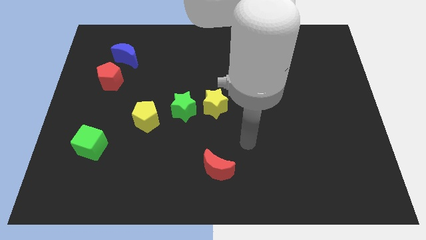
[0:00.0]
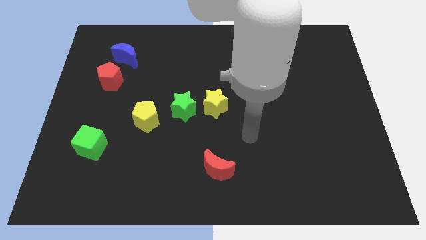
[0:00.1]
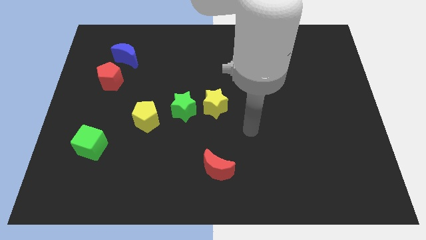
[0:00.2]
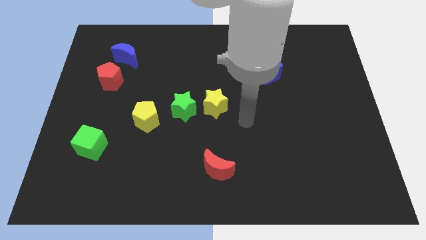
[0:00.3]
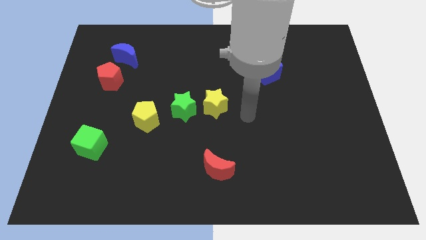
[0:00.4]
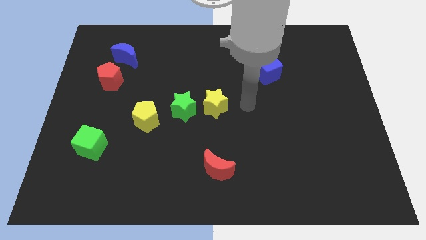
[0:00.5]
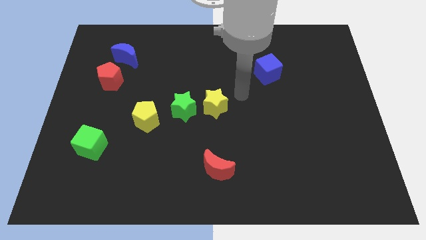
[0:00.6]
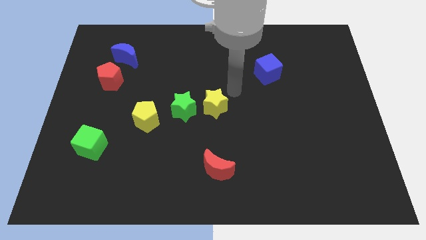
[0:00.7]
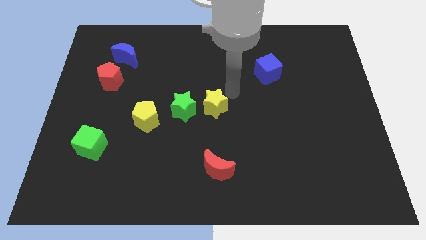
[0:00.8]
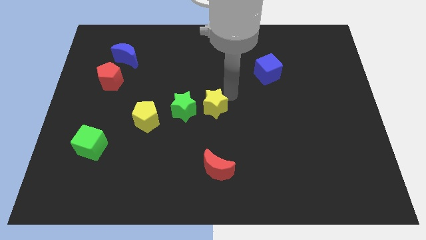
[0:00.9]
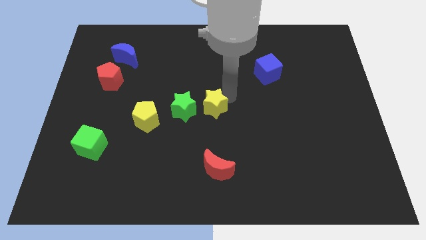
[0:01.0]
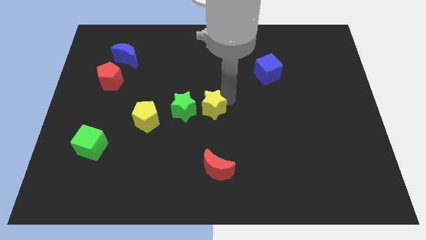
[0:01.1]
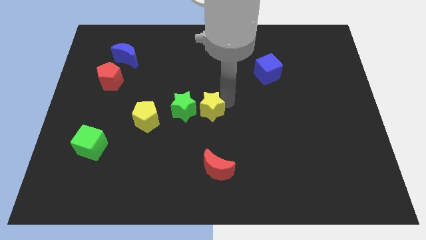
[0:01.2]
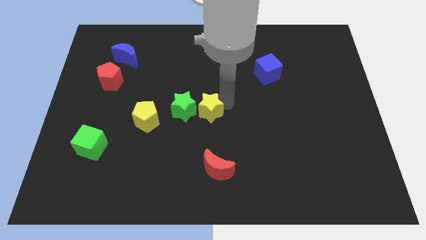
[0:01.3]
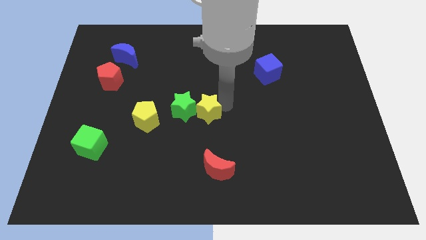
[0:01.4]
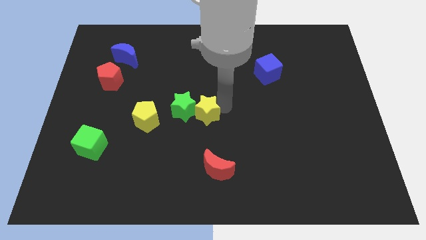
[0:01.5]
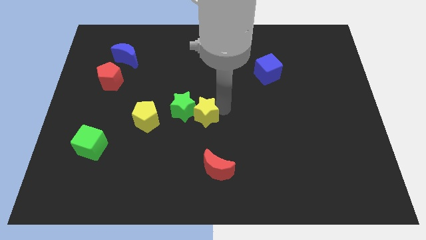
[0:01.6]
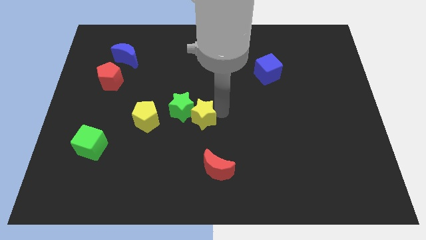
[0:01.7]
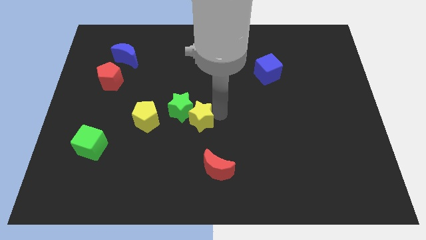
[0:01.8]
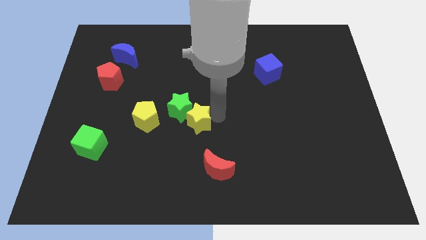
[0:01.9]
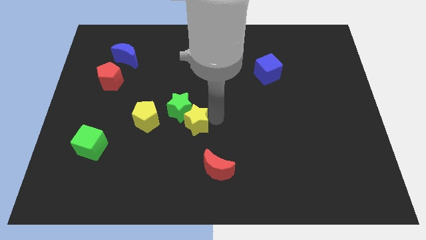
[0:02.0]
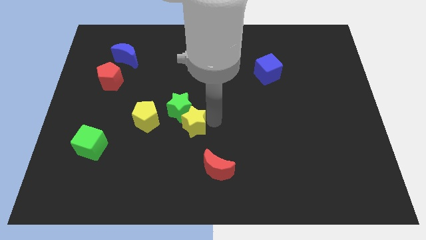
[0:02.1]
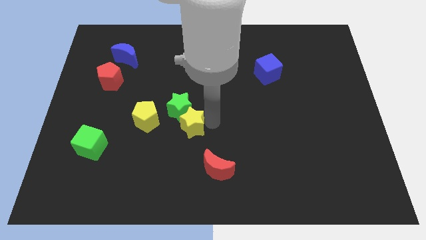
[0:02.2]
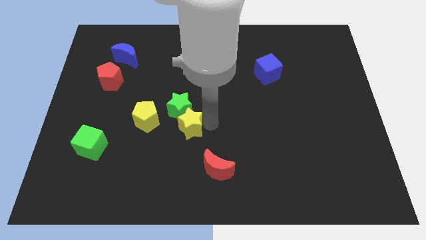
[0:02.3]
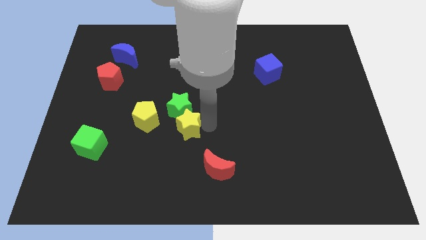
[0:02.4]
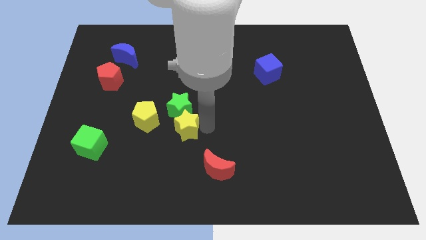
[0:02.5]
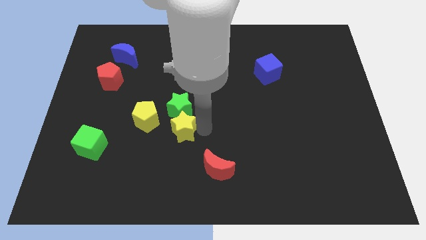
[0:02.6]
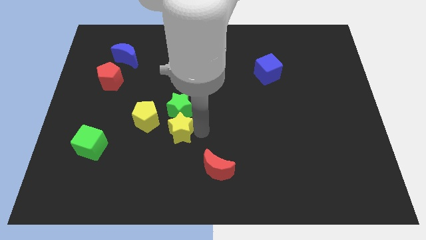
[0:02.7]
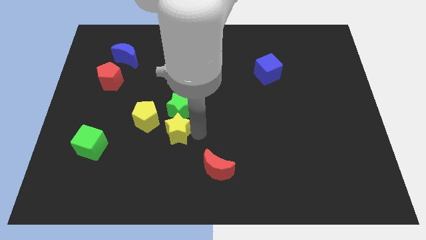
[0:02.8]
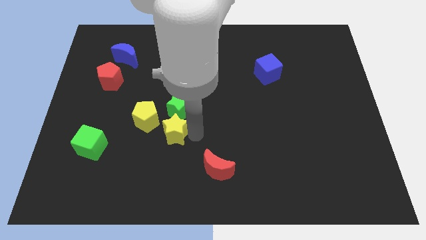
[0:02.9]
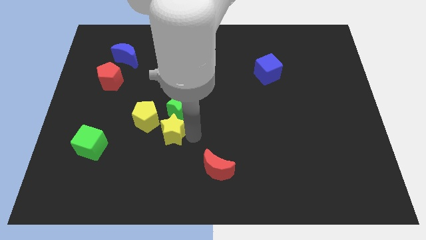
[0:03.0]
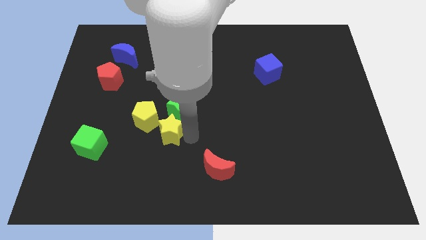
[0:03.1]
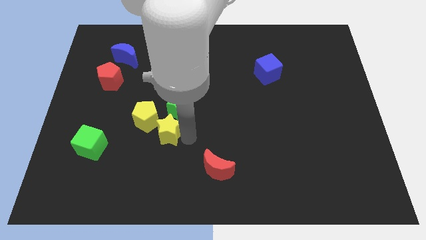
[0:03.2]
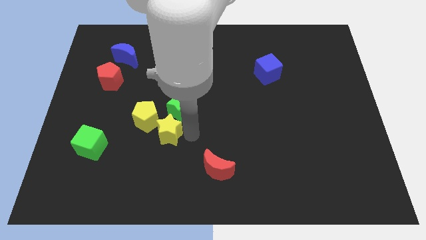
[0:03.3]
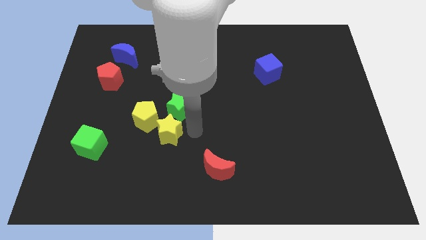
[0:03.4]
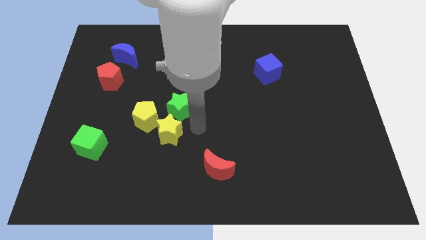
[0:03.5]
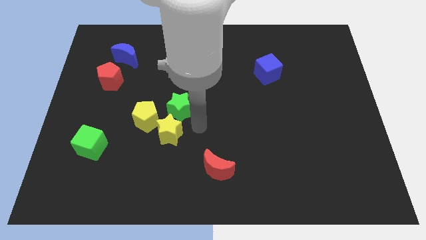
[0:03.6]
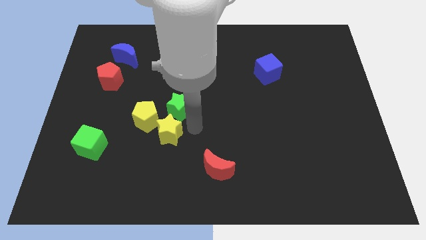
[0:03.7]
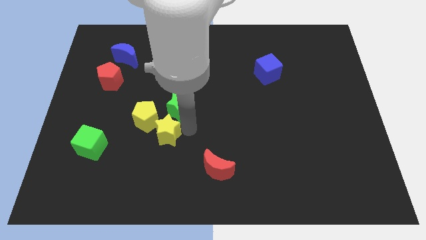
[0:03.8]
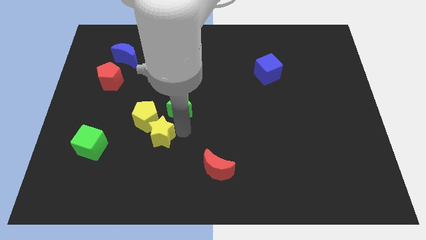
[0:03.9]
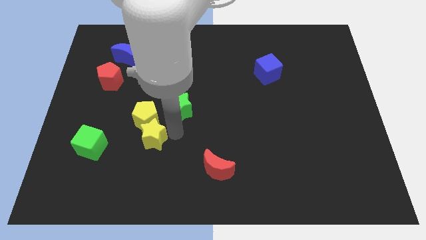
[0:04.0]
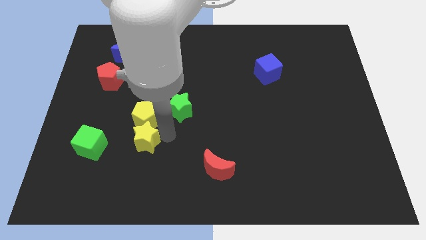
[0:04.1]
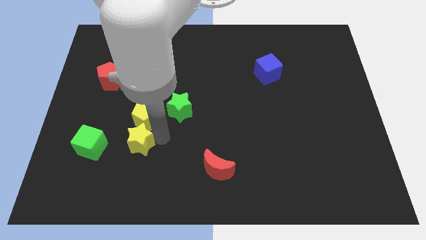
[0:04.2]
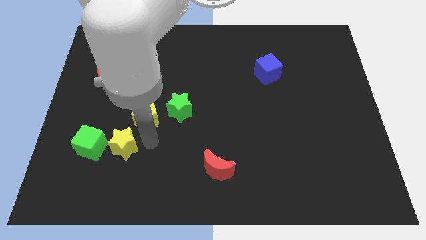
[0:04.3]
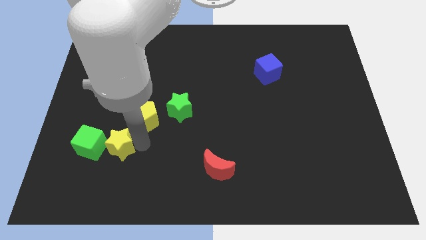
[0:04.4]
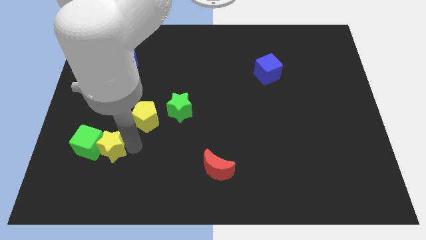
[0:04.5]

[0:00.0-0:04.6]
put the yellow star towards the green cube

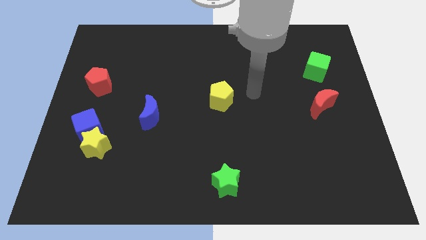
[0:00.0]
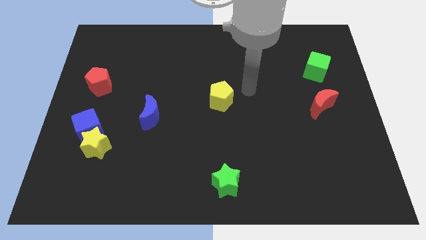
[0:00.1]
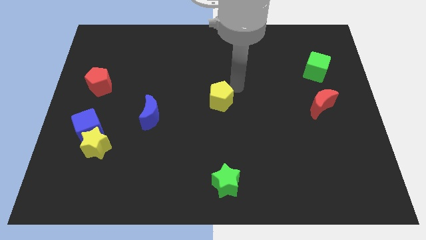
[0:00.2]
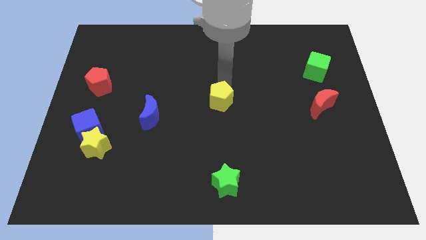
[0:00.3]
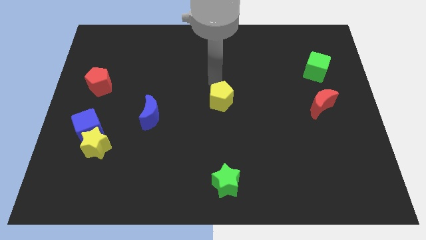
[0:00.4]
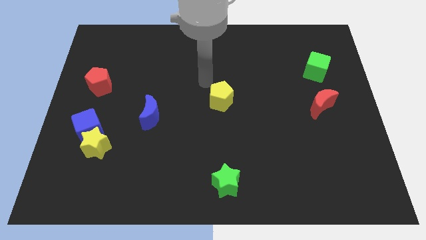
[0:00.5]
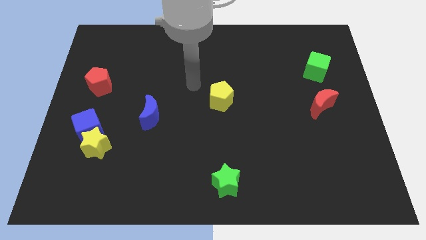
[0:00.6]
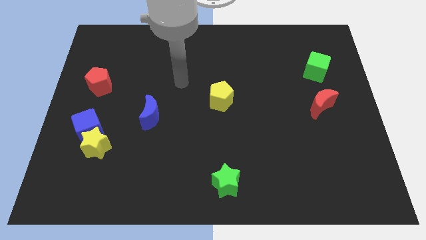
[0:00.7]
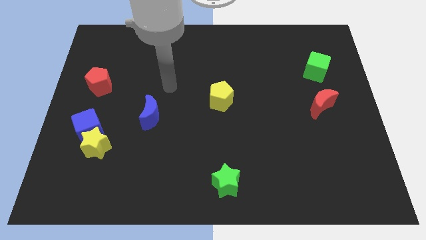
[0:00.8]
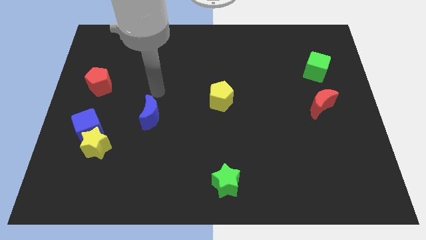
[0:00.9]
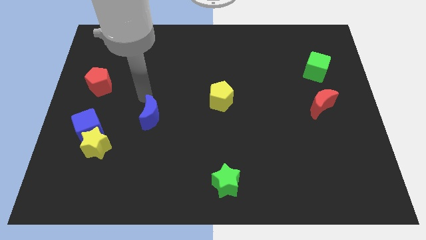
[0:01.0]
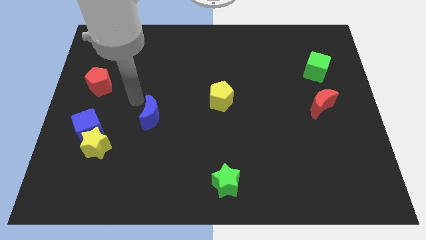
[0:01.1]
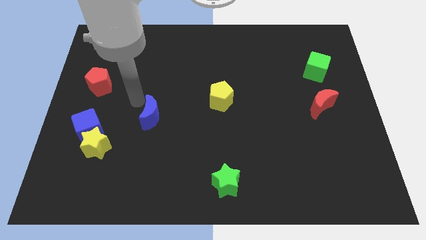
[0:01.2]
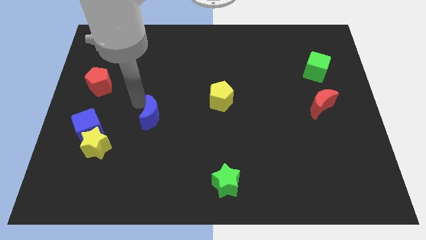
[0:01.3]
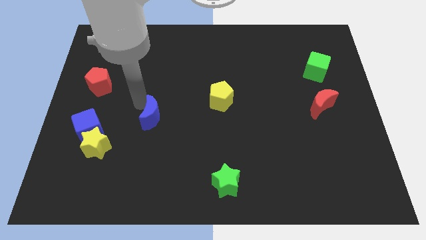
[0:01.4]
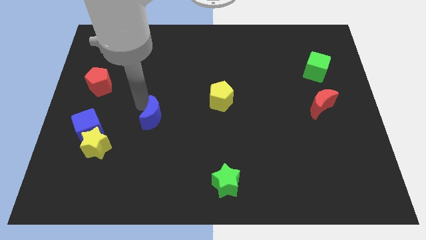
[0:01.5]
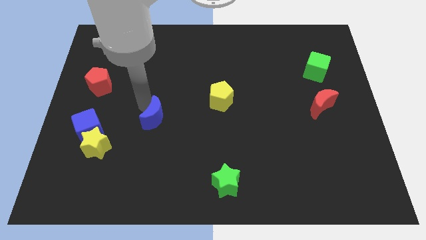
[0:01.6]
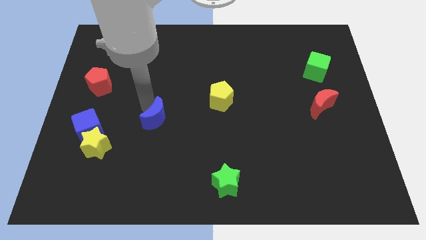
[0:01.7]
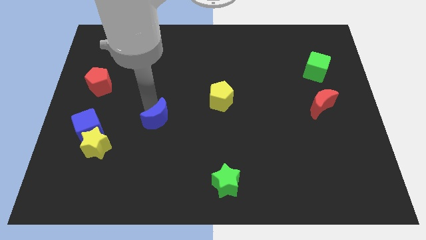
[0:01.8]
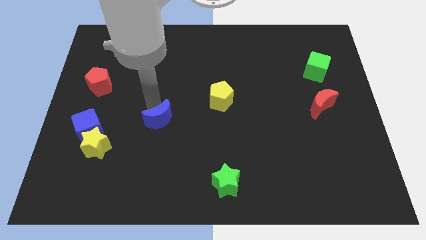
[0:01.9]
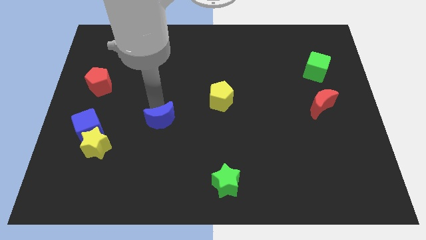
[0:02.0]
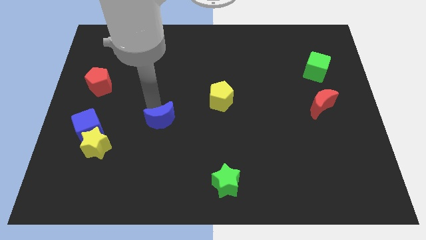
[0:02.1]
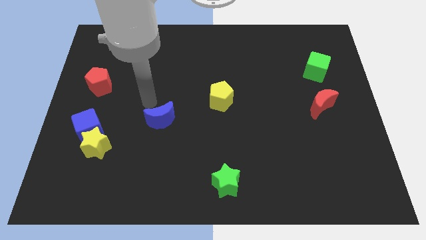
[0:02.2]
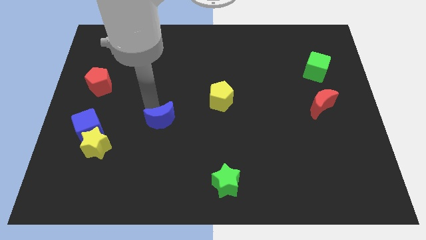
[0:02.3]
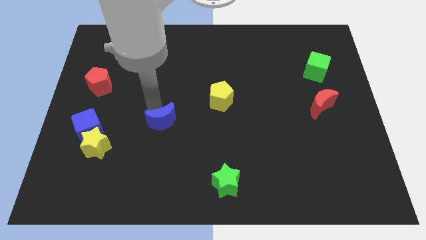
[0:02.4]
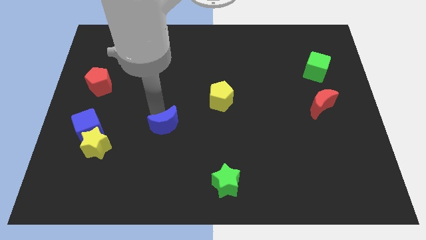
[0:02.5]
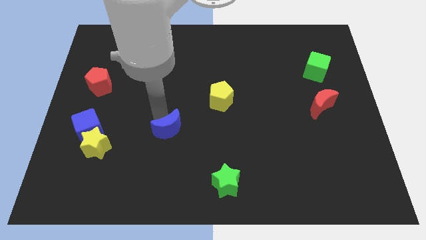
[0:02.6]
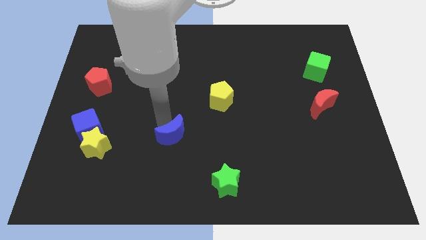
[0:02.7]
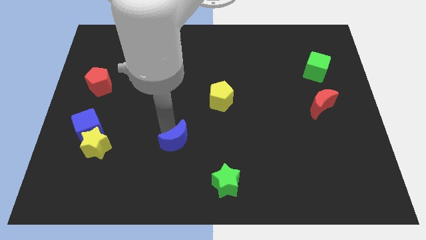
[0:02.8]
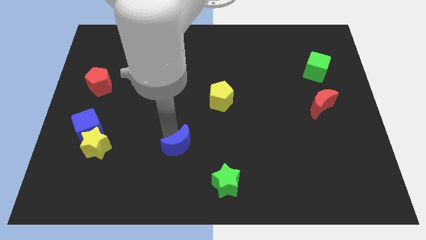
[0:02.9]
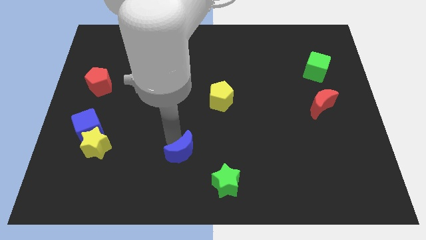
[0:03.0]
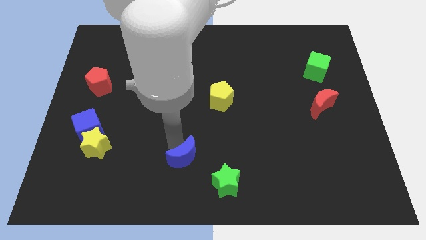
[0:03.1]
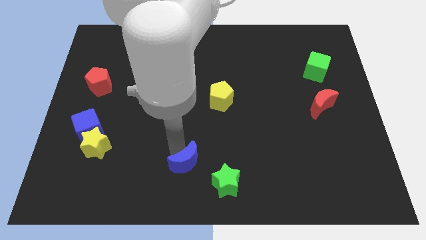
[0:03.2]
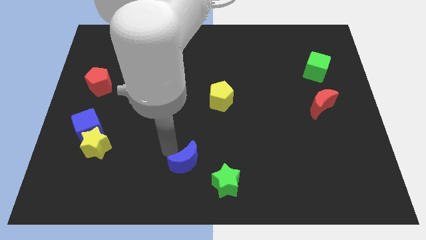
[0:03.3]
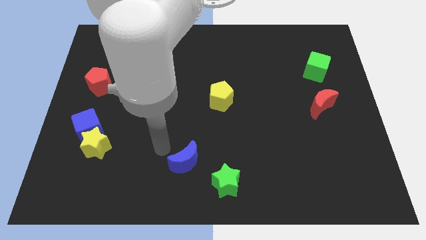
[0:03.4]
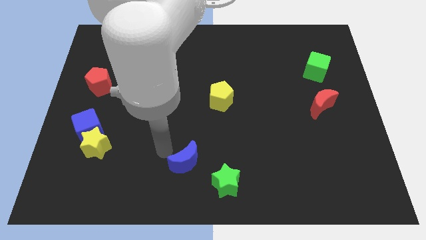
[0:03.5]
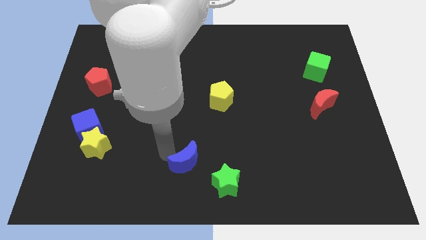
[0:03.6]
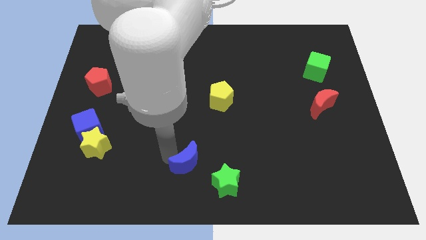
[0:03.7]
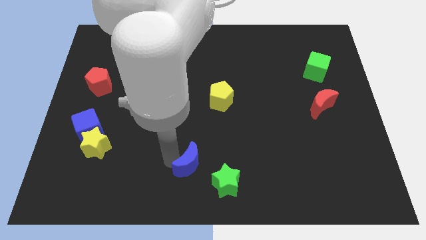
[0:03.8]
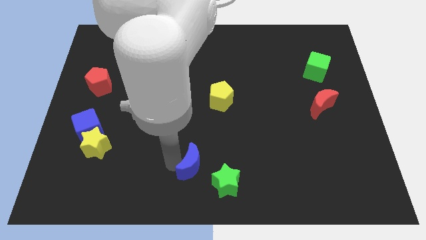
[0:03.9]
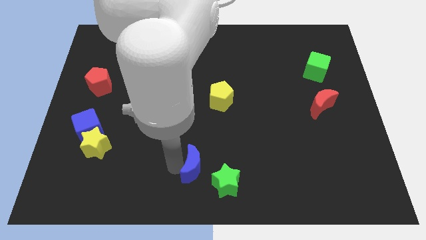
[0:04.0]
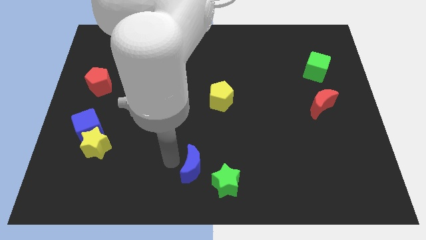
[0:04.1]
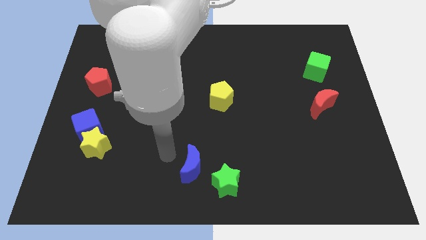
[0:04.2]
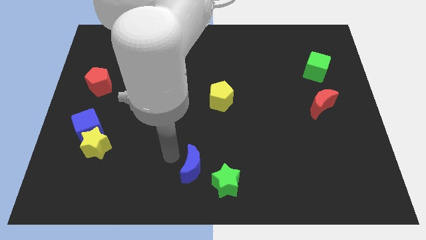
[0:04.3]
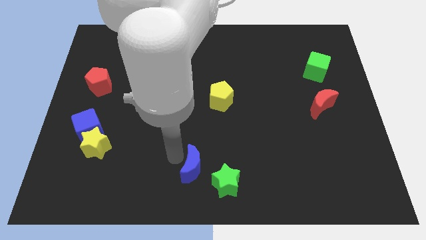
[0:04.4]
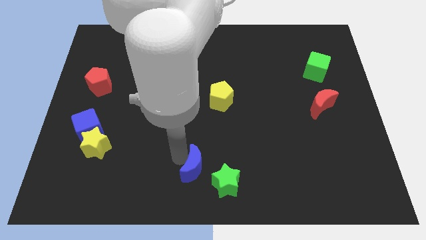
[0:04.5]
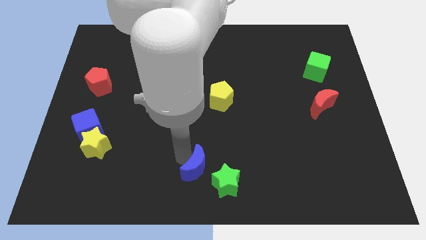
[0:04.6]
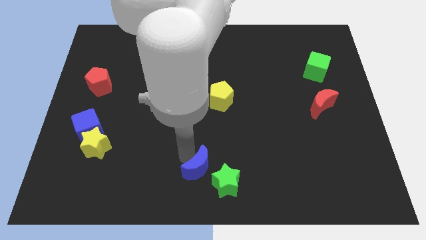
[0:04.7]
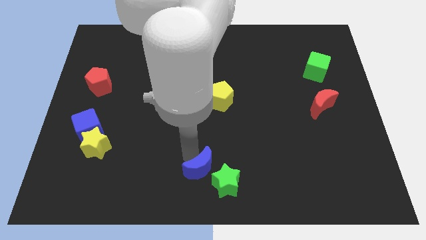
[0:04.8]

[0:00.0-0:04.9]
put the blue moon close to the green star
